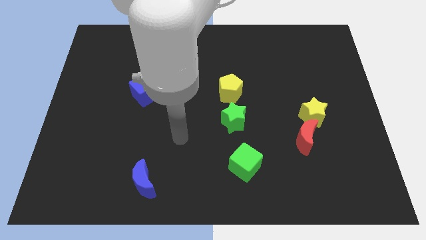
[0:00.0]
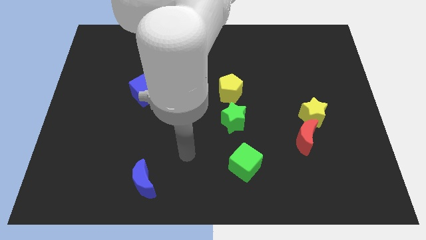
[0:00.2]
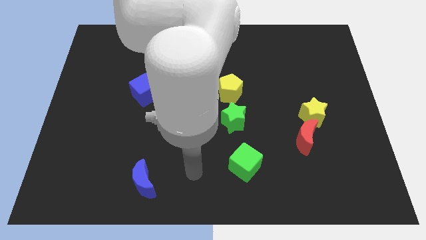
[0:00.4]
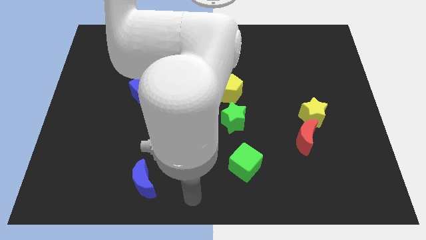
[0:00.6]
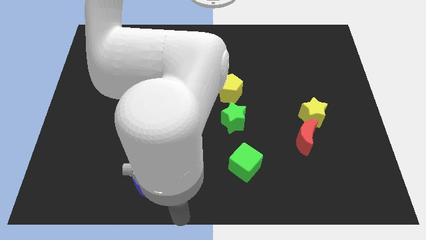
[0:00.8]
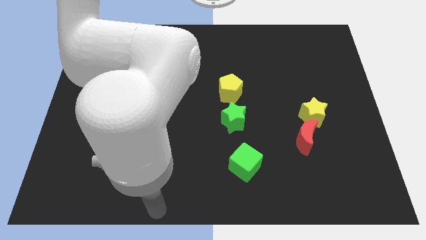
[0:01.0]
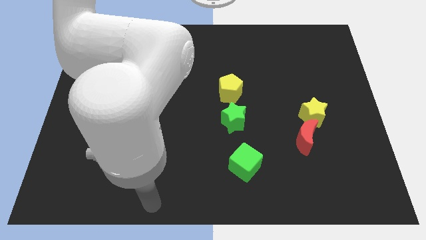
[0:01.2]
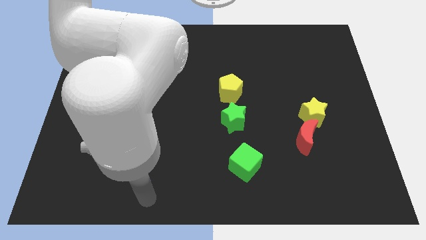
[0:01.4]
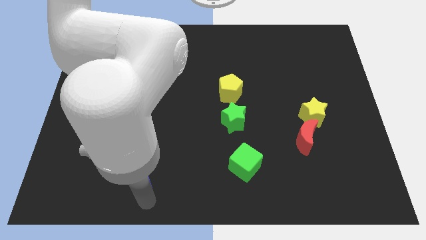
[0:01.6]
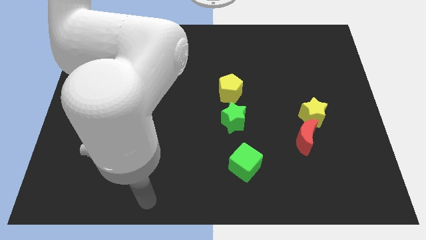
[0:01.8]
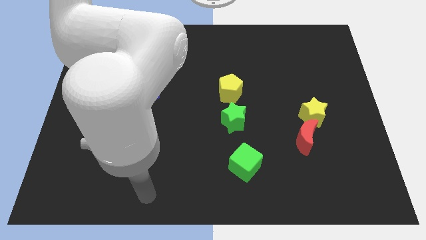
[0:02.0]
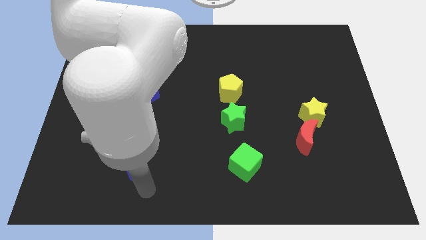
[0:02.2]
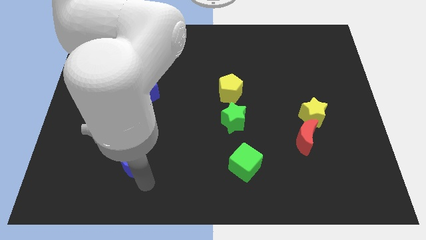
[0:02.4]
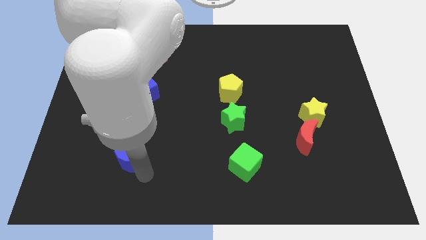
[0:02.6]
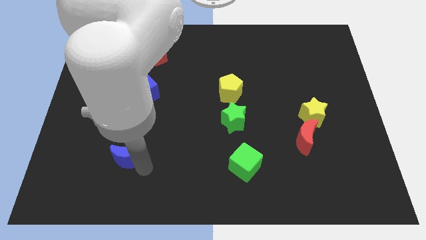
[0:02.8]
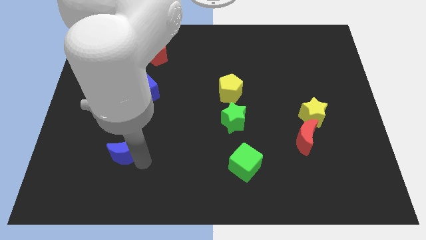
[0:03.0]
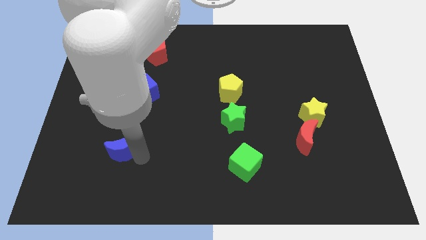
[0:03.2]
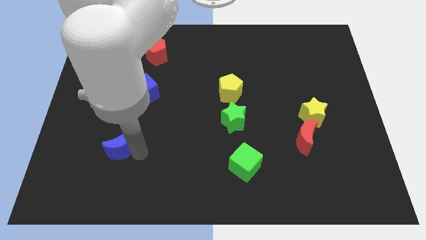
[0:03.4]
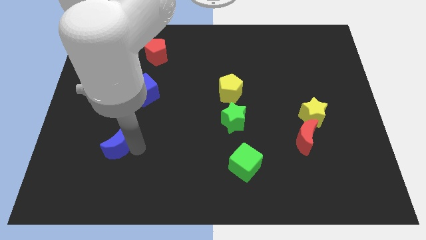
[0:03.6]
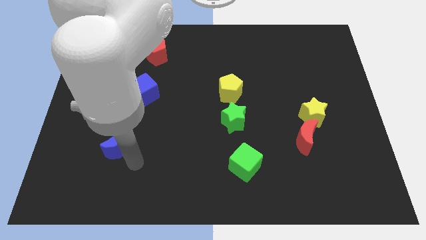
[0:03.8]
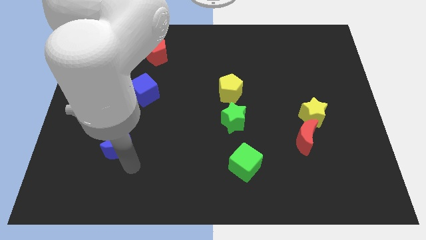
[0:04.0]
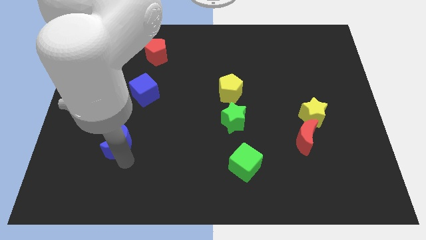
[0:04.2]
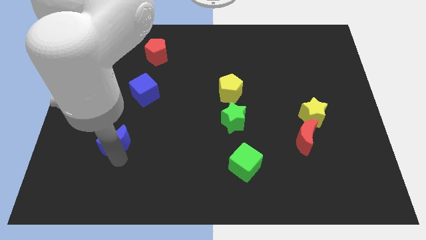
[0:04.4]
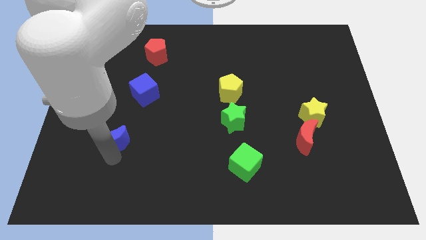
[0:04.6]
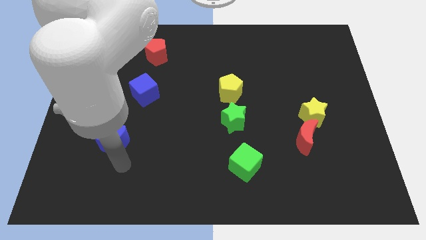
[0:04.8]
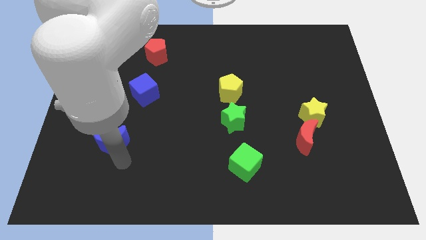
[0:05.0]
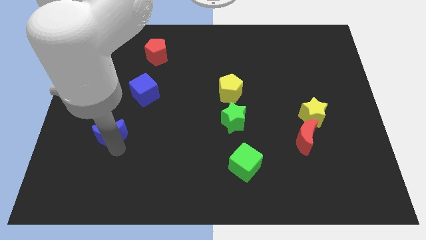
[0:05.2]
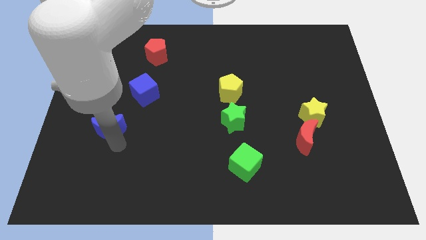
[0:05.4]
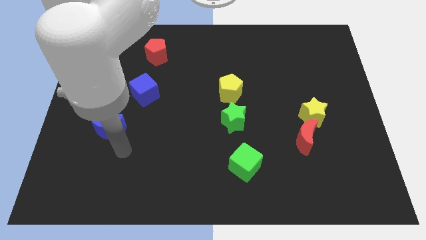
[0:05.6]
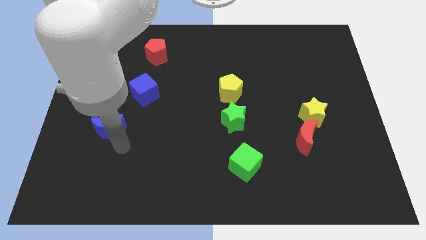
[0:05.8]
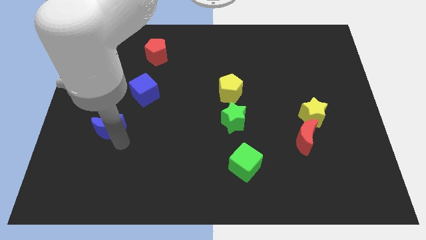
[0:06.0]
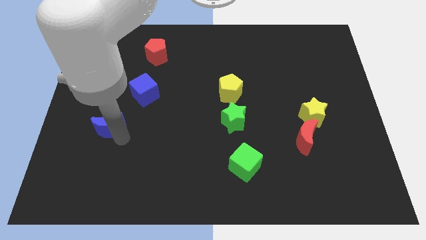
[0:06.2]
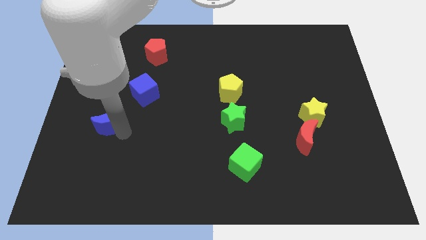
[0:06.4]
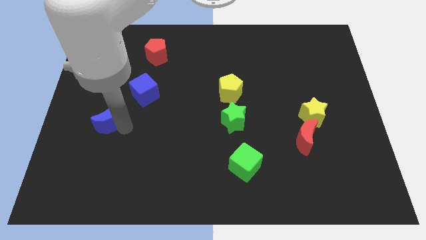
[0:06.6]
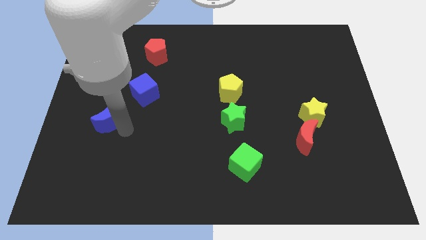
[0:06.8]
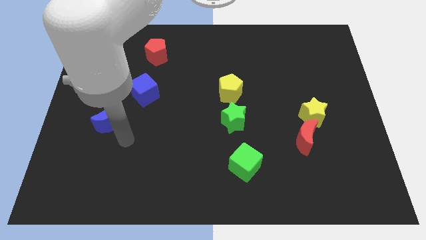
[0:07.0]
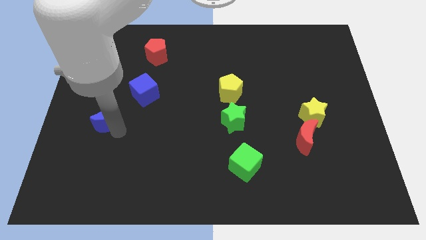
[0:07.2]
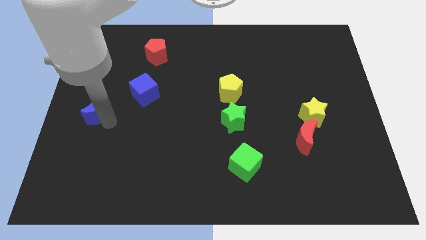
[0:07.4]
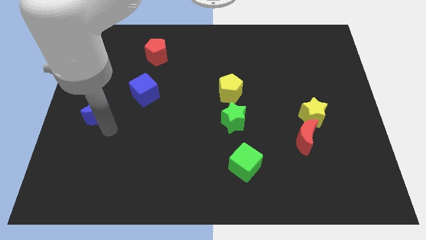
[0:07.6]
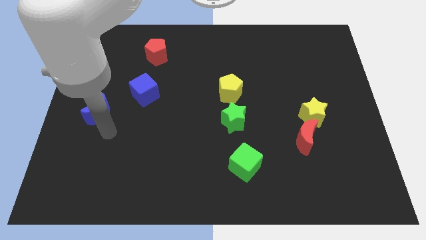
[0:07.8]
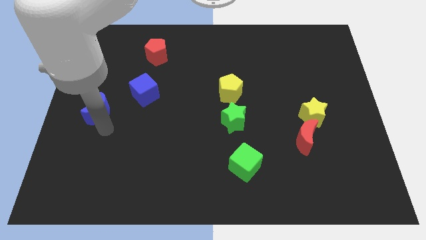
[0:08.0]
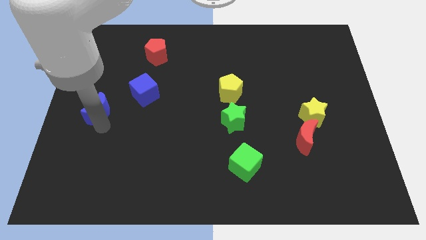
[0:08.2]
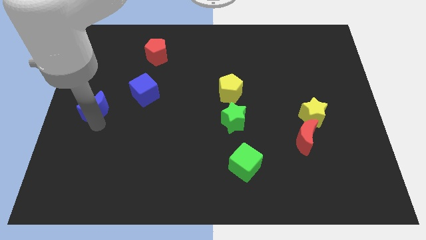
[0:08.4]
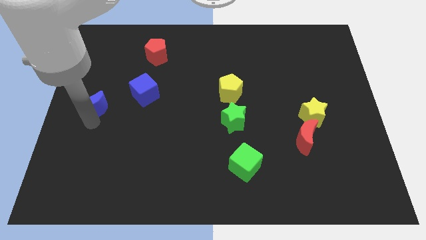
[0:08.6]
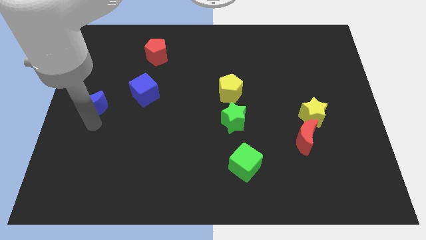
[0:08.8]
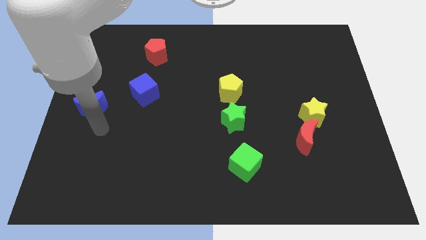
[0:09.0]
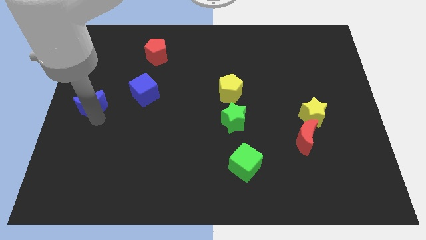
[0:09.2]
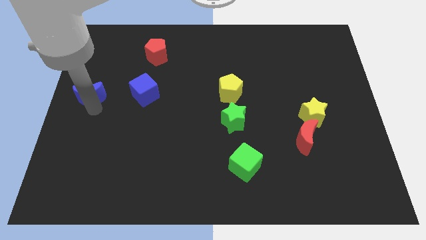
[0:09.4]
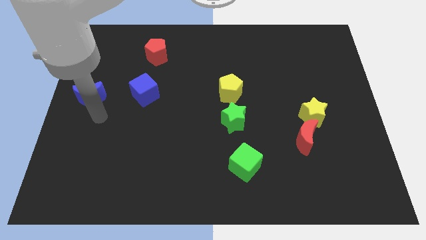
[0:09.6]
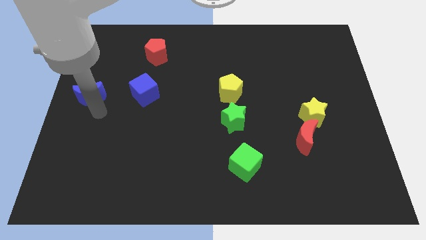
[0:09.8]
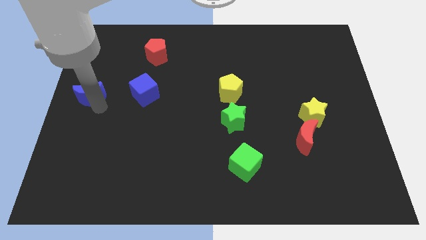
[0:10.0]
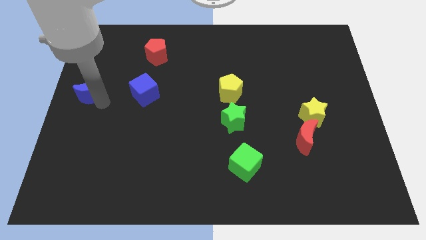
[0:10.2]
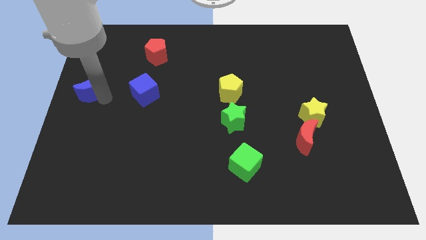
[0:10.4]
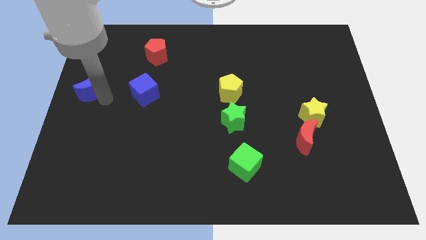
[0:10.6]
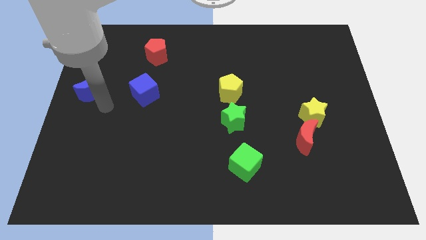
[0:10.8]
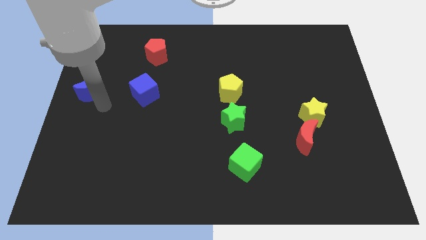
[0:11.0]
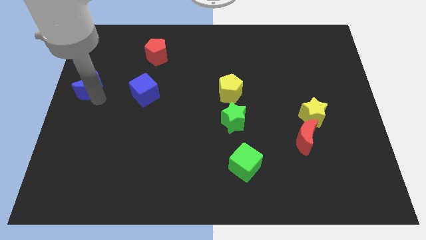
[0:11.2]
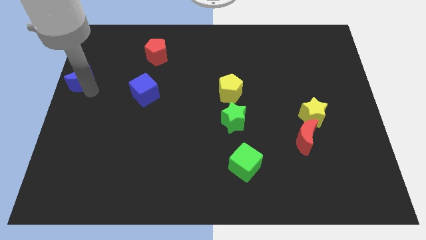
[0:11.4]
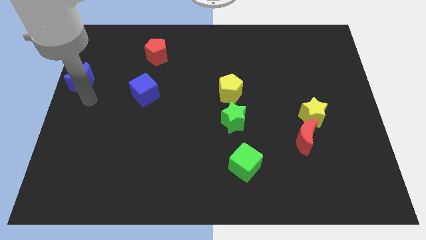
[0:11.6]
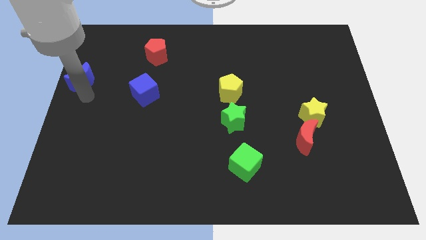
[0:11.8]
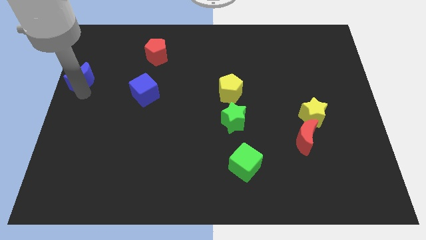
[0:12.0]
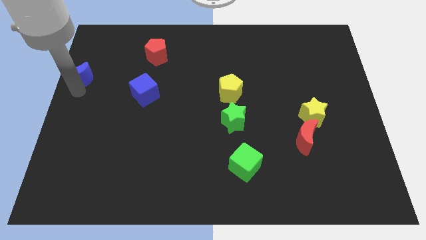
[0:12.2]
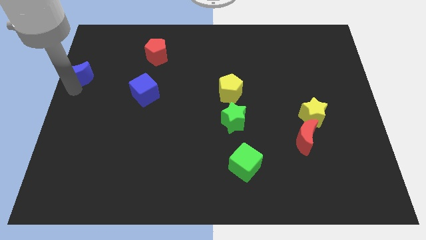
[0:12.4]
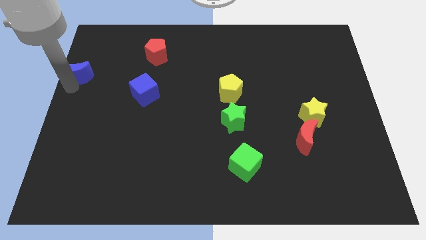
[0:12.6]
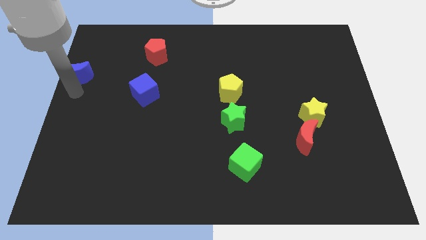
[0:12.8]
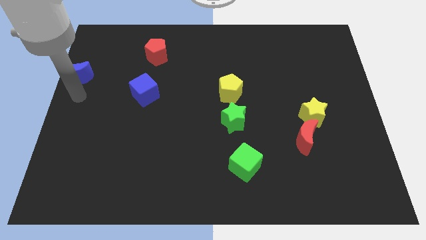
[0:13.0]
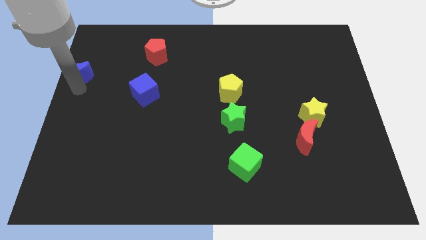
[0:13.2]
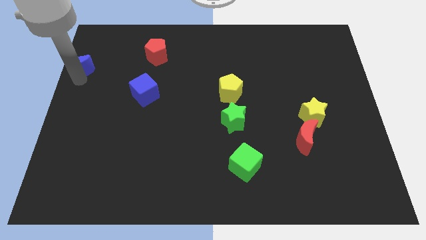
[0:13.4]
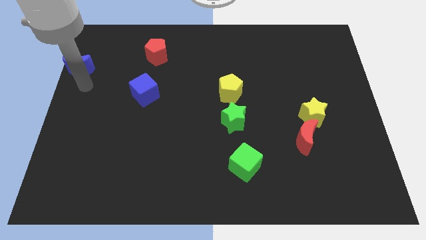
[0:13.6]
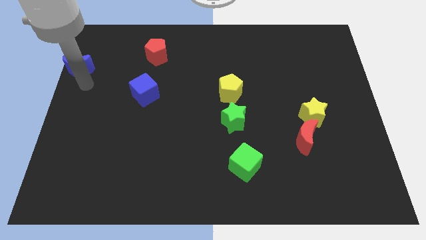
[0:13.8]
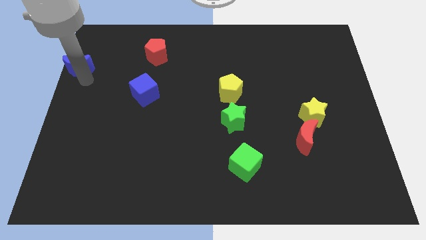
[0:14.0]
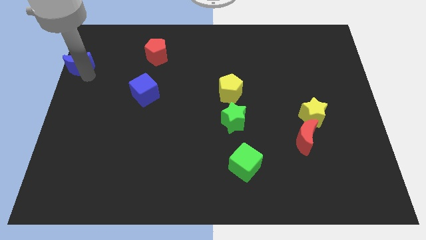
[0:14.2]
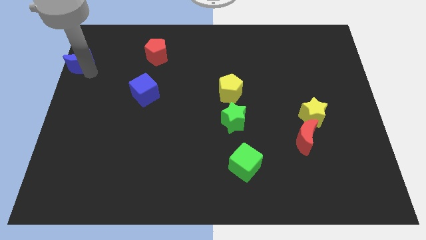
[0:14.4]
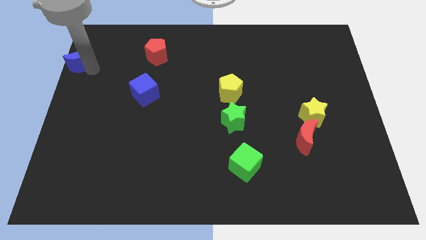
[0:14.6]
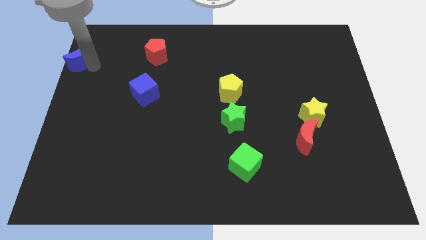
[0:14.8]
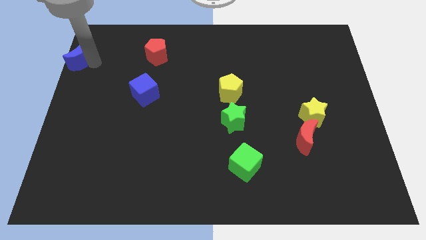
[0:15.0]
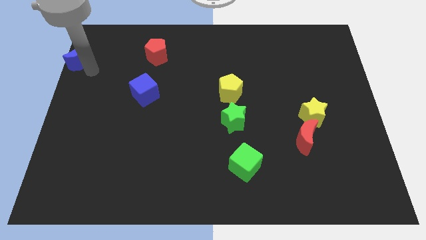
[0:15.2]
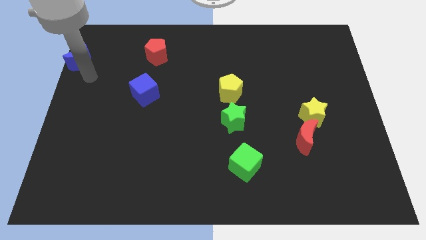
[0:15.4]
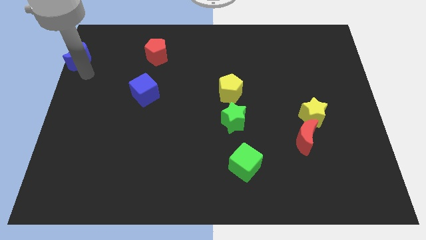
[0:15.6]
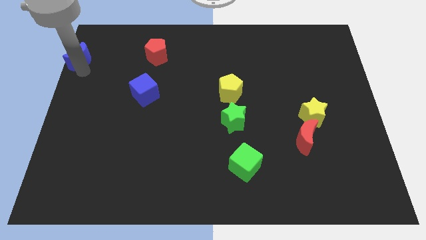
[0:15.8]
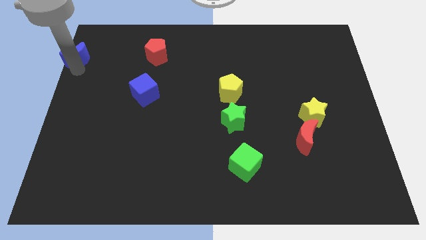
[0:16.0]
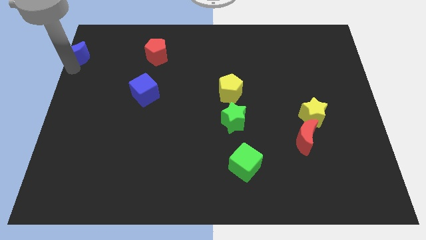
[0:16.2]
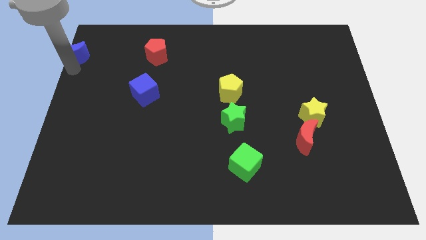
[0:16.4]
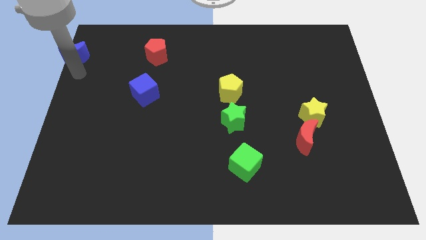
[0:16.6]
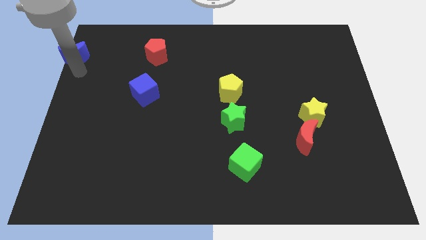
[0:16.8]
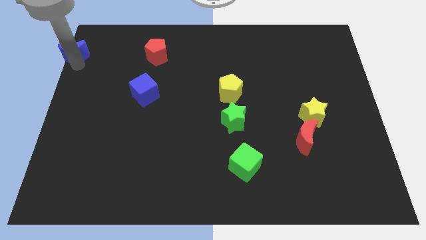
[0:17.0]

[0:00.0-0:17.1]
slide the blue moon to the upper left corner
